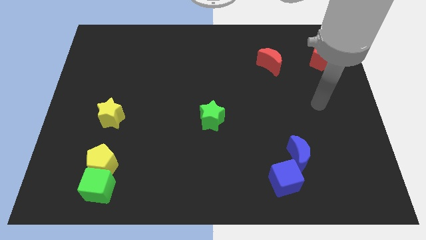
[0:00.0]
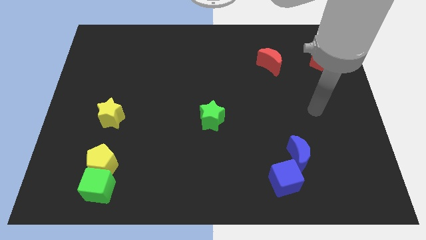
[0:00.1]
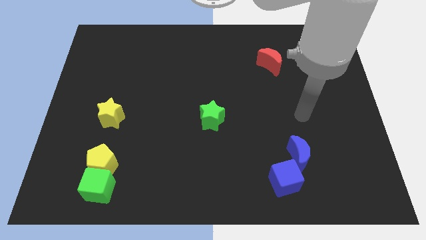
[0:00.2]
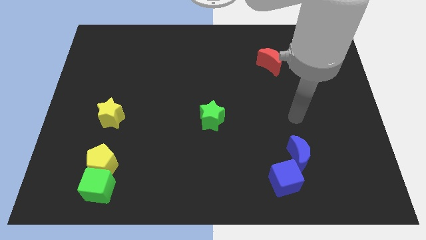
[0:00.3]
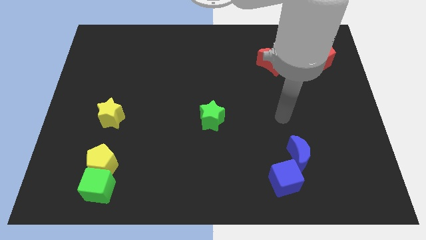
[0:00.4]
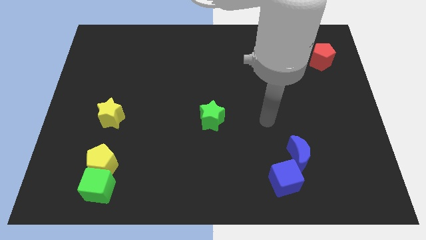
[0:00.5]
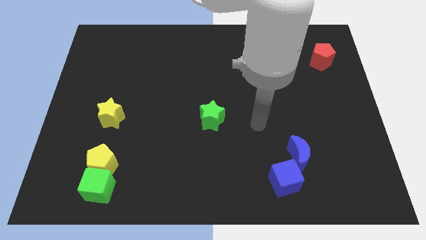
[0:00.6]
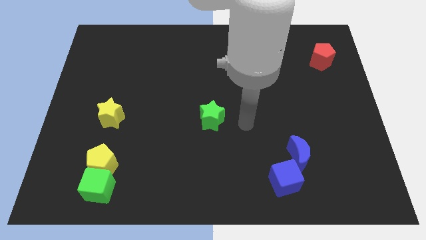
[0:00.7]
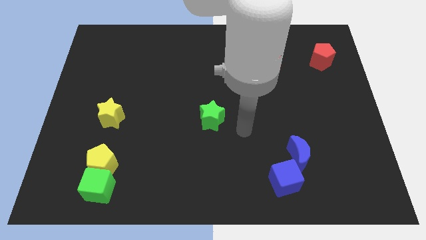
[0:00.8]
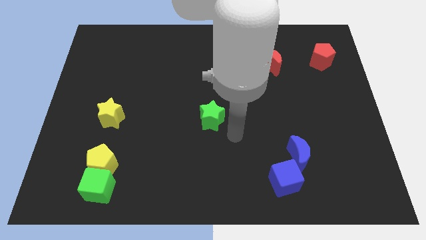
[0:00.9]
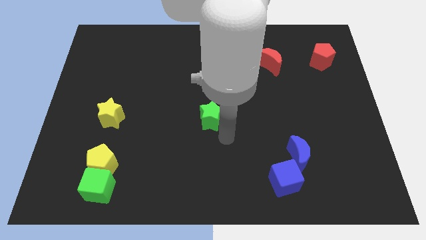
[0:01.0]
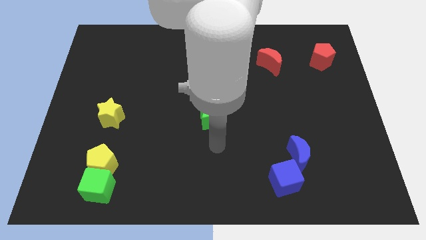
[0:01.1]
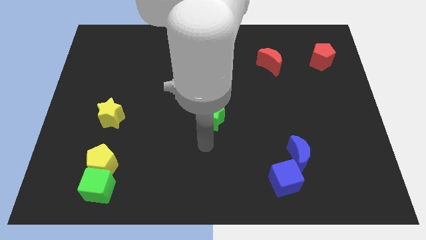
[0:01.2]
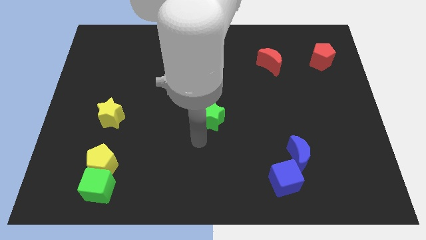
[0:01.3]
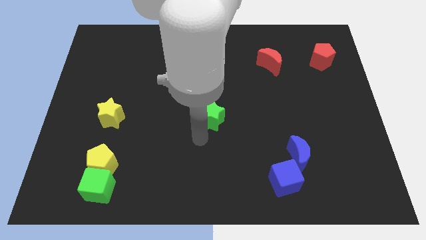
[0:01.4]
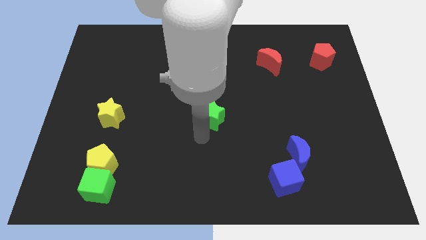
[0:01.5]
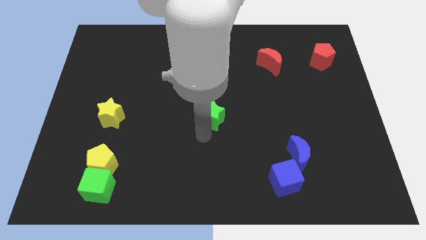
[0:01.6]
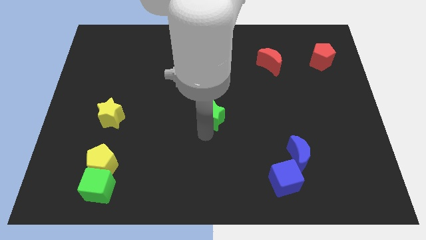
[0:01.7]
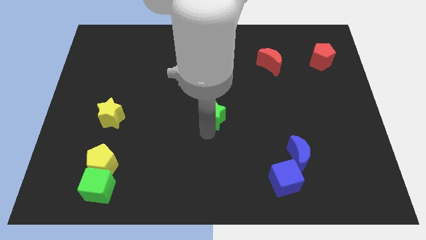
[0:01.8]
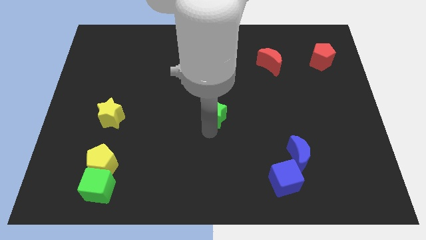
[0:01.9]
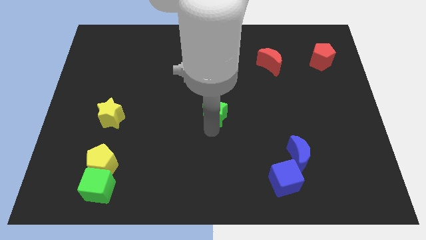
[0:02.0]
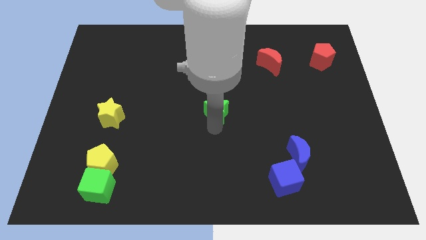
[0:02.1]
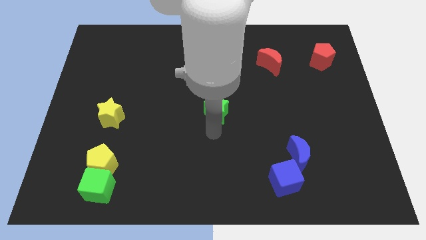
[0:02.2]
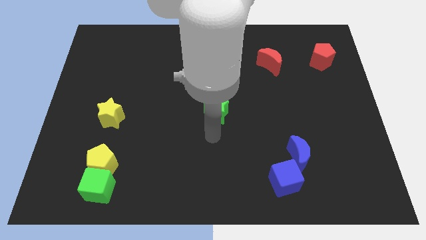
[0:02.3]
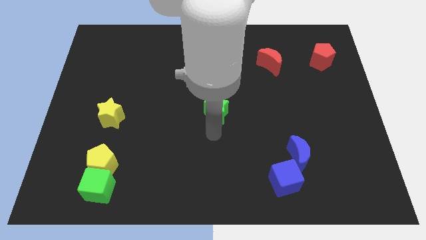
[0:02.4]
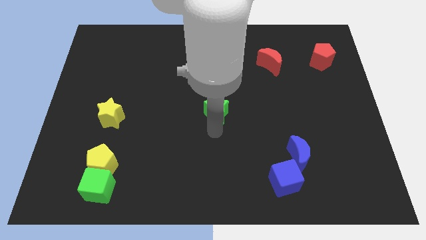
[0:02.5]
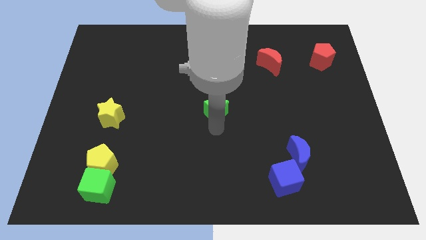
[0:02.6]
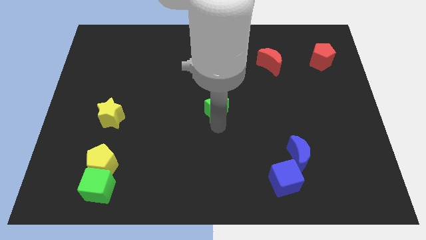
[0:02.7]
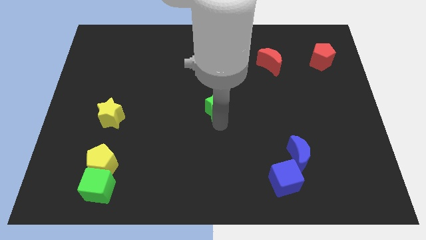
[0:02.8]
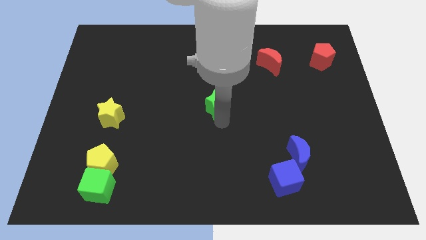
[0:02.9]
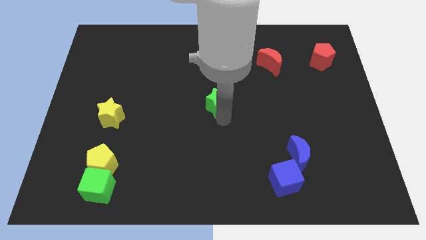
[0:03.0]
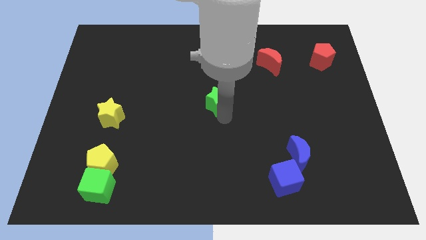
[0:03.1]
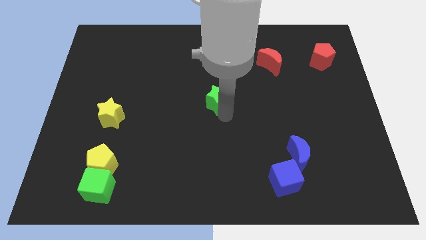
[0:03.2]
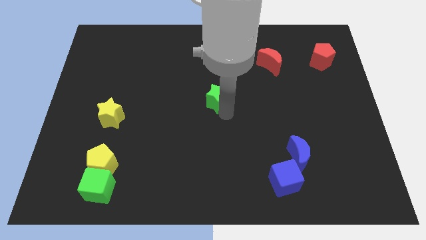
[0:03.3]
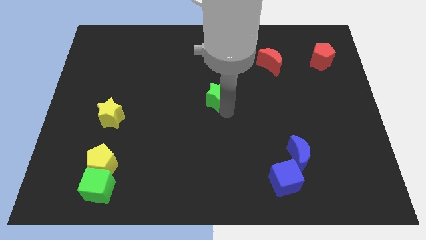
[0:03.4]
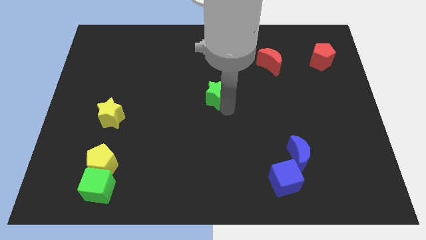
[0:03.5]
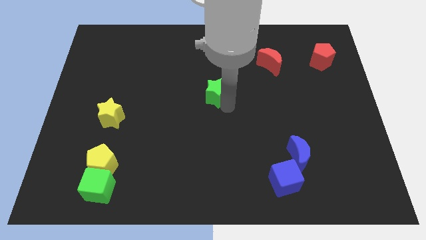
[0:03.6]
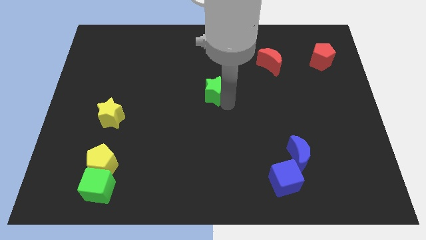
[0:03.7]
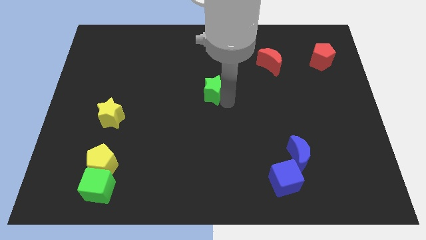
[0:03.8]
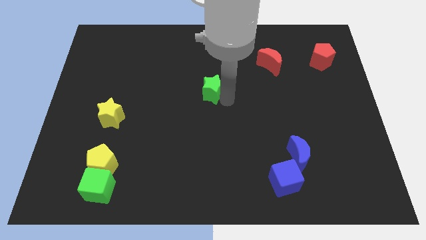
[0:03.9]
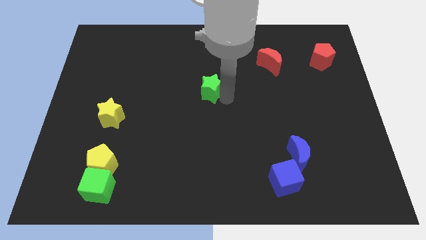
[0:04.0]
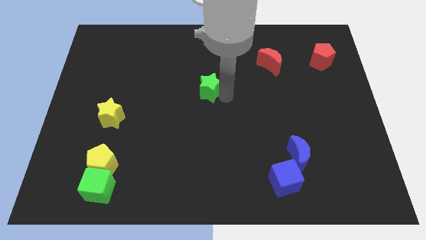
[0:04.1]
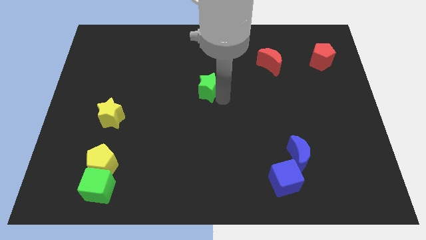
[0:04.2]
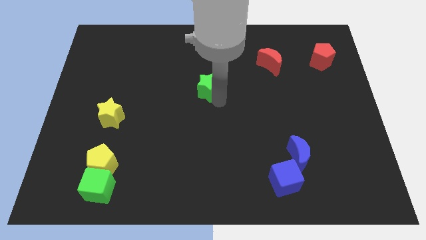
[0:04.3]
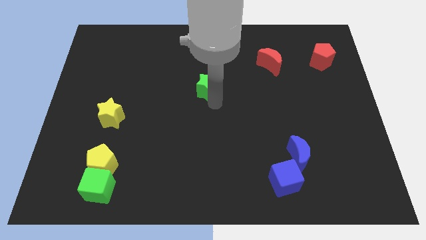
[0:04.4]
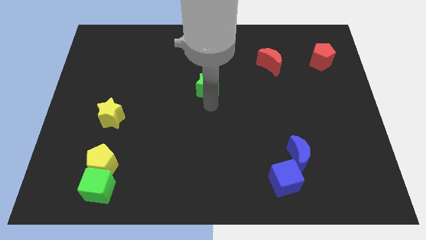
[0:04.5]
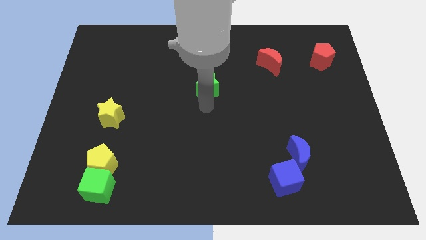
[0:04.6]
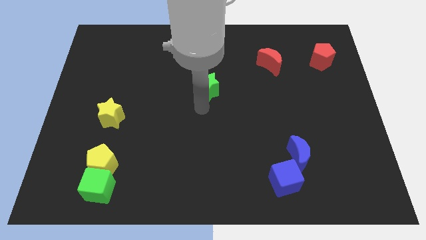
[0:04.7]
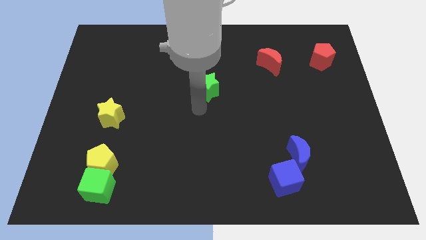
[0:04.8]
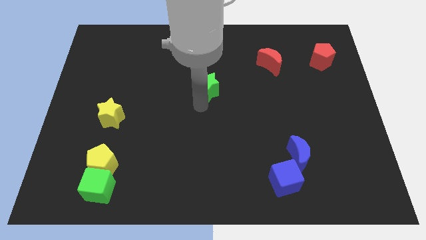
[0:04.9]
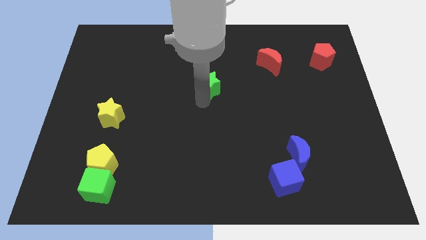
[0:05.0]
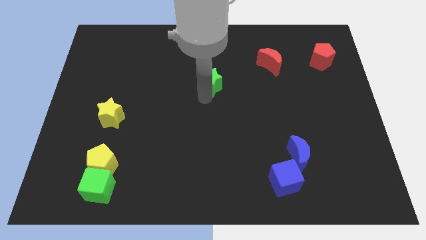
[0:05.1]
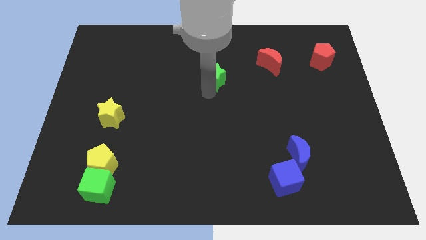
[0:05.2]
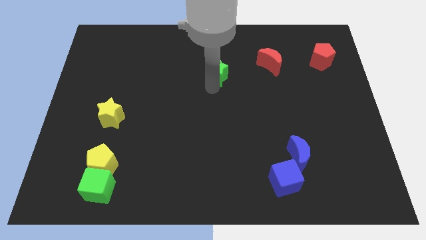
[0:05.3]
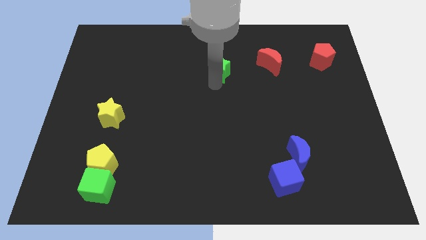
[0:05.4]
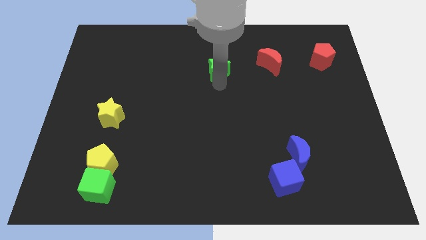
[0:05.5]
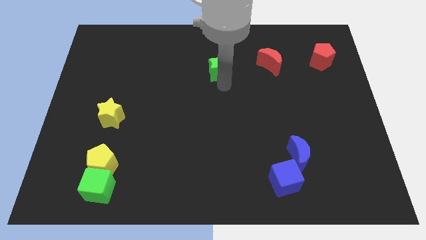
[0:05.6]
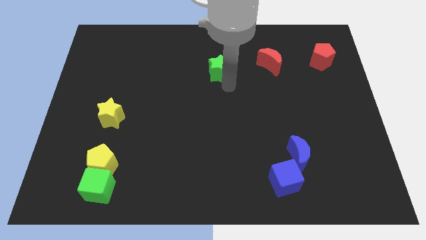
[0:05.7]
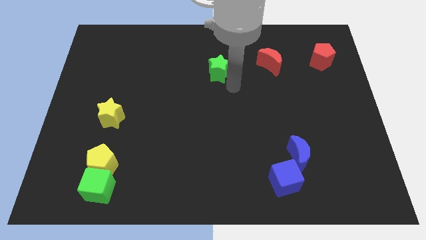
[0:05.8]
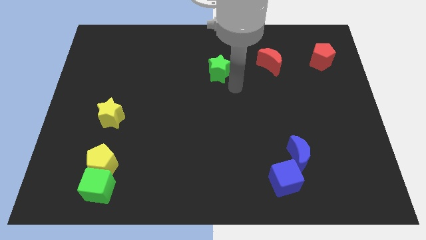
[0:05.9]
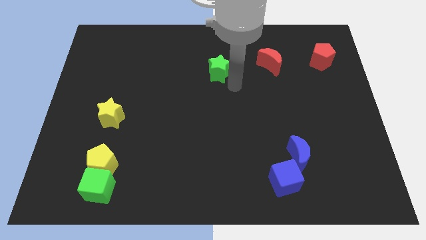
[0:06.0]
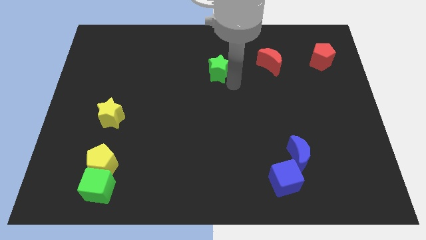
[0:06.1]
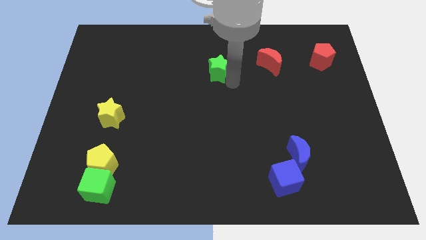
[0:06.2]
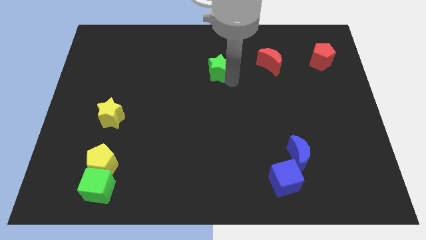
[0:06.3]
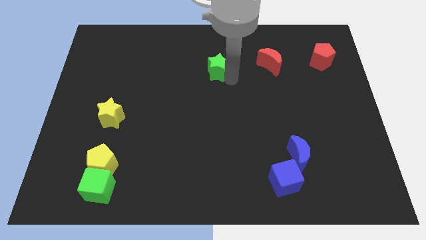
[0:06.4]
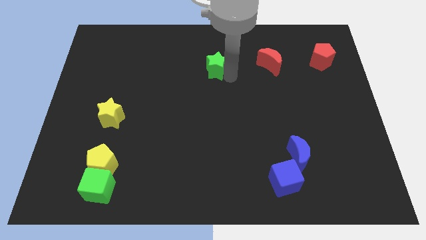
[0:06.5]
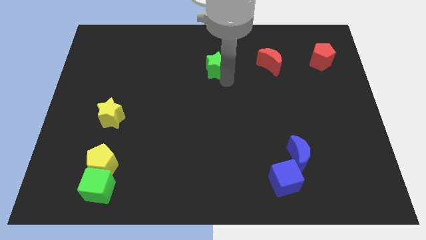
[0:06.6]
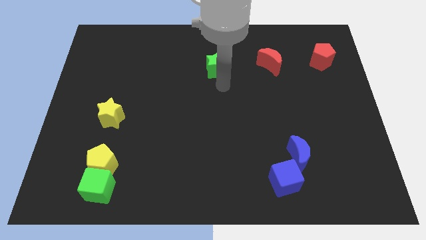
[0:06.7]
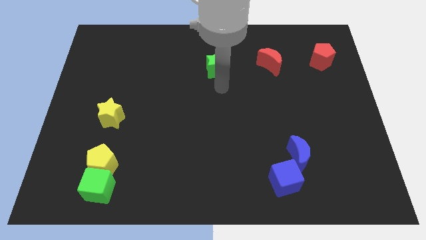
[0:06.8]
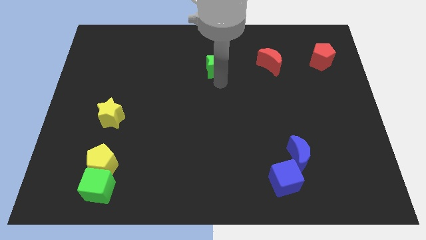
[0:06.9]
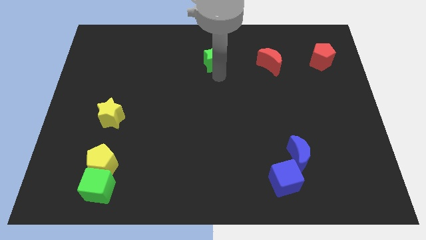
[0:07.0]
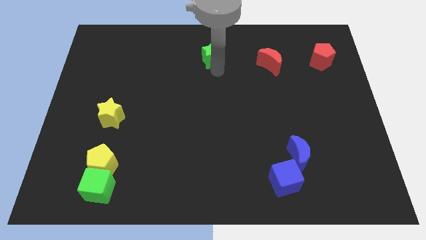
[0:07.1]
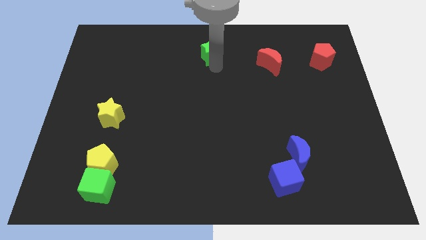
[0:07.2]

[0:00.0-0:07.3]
push the green star to the top
